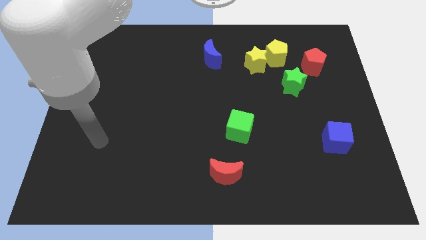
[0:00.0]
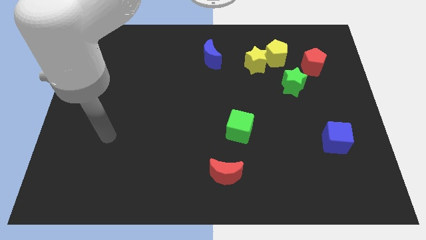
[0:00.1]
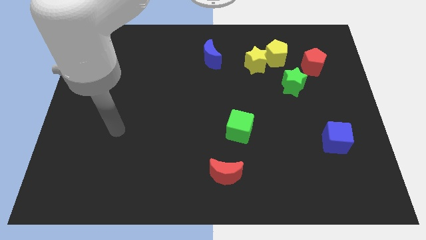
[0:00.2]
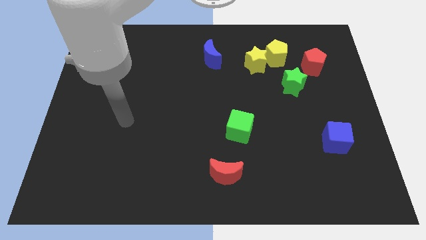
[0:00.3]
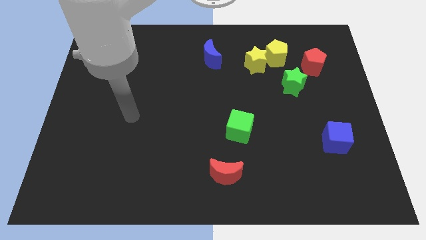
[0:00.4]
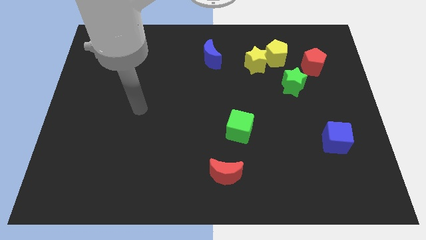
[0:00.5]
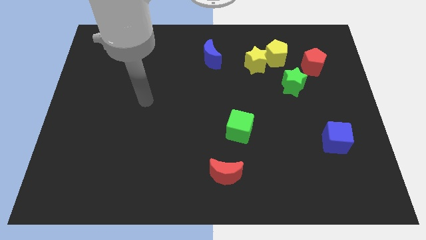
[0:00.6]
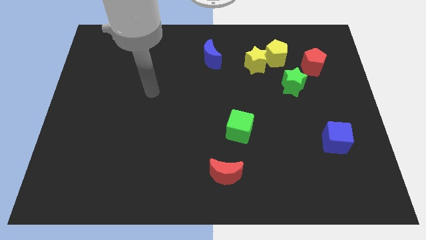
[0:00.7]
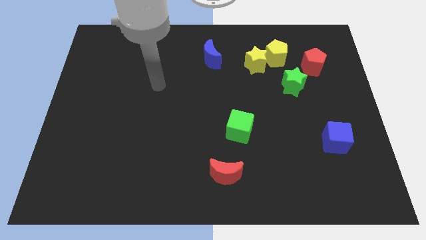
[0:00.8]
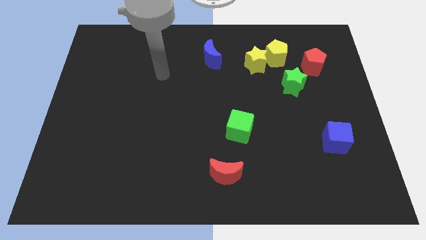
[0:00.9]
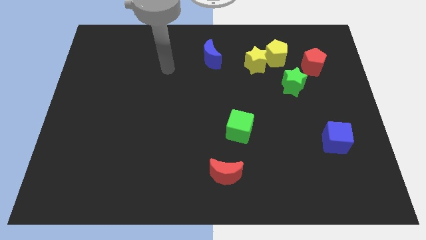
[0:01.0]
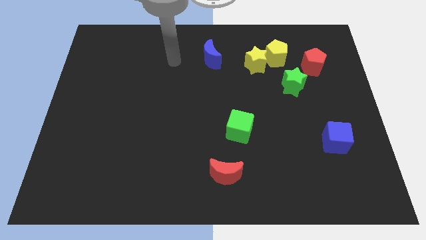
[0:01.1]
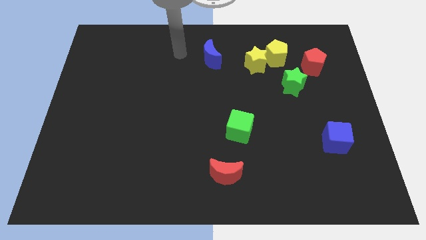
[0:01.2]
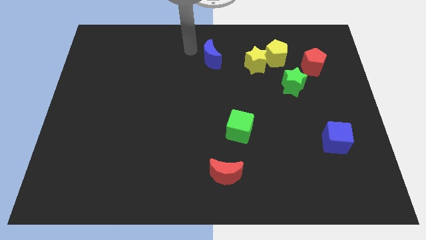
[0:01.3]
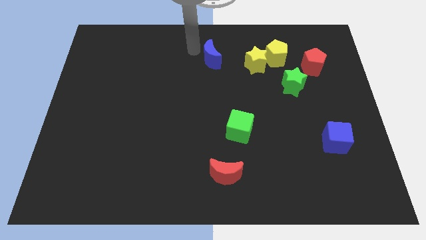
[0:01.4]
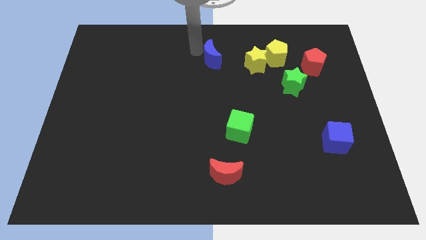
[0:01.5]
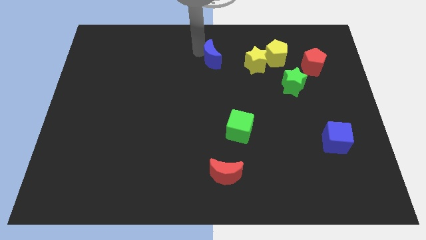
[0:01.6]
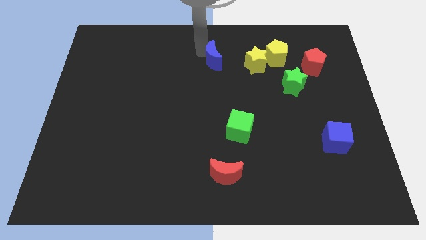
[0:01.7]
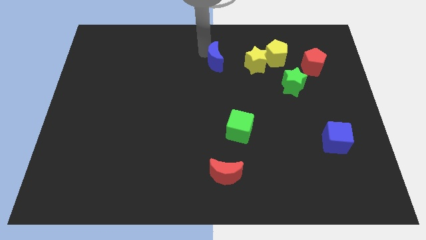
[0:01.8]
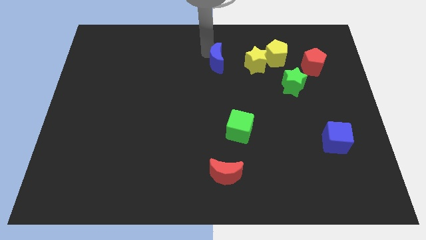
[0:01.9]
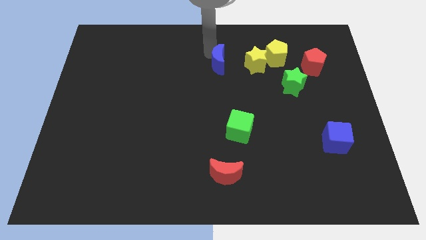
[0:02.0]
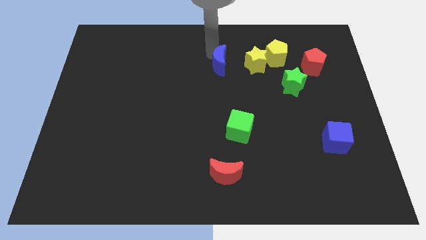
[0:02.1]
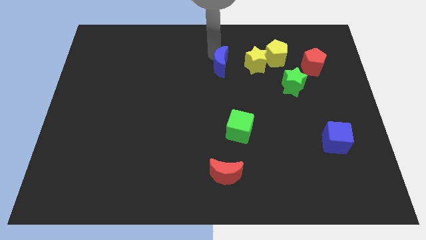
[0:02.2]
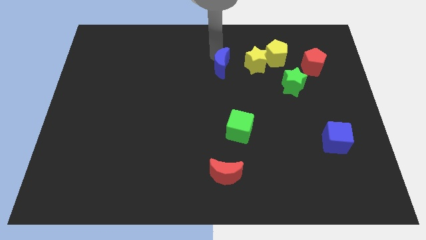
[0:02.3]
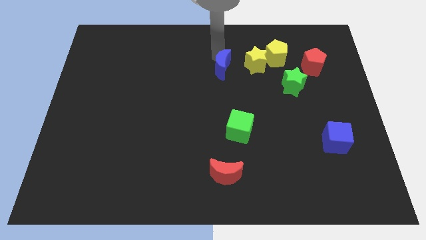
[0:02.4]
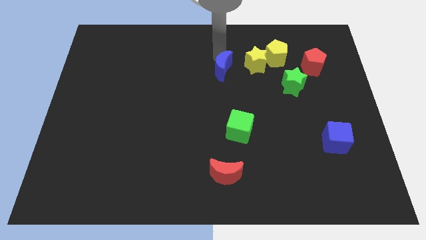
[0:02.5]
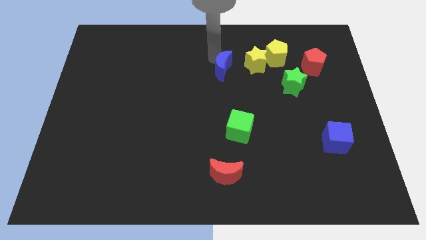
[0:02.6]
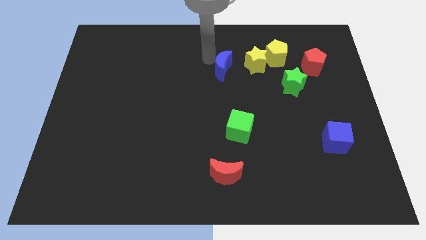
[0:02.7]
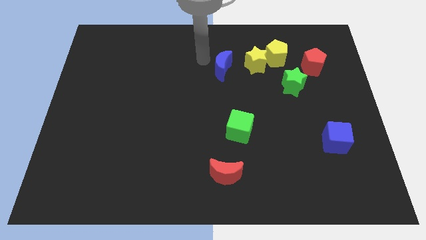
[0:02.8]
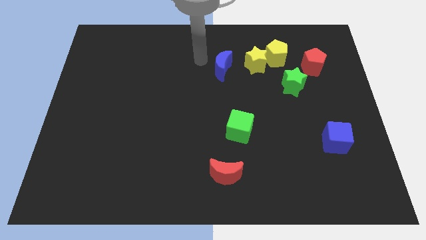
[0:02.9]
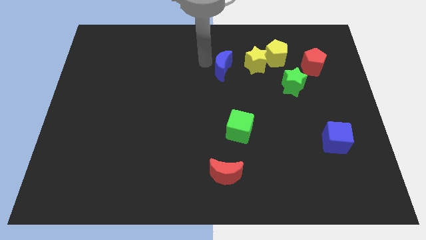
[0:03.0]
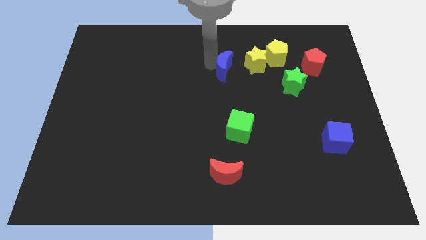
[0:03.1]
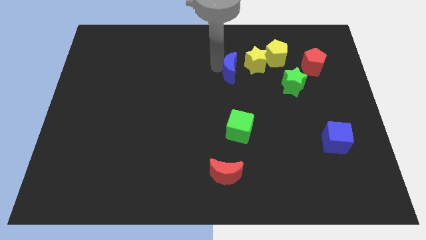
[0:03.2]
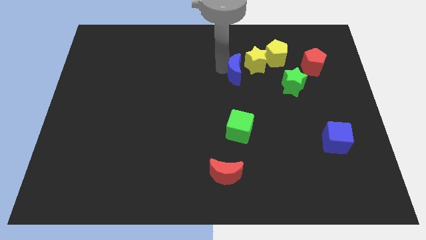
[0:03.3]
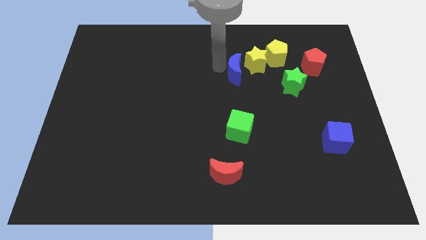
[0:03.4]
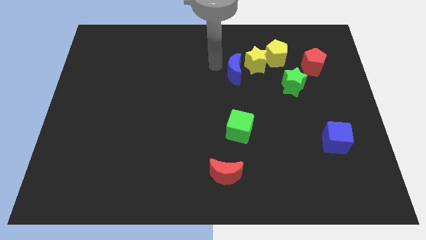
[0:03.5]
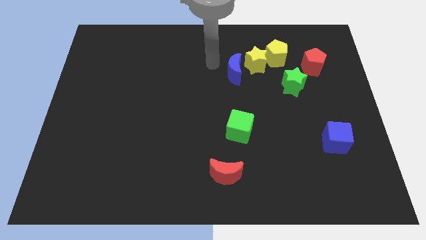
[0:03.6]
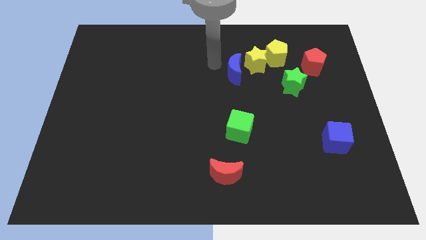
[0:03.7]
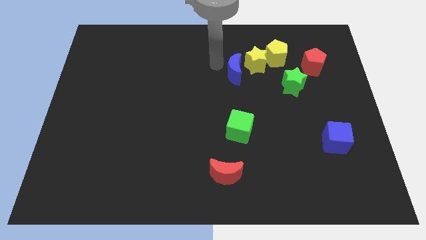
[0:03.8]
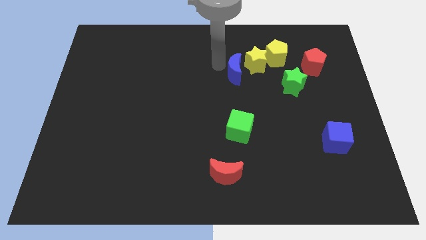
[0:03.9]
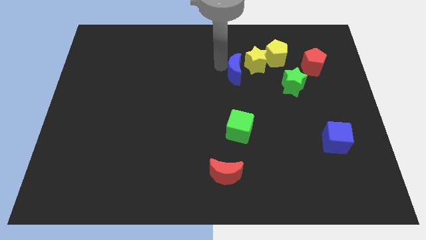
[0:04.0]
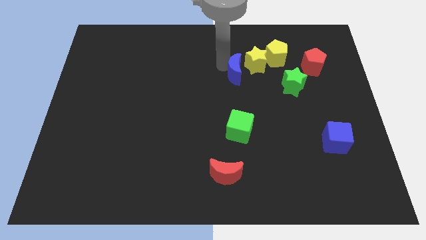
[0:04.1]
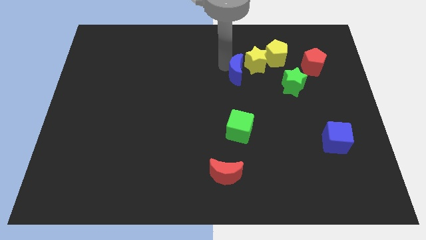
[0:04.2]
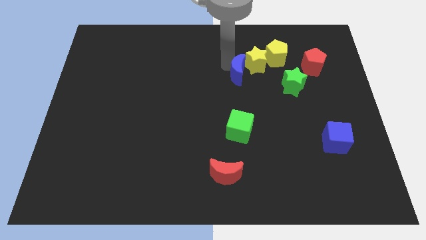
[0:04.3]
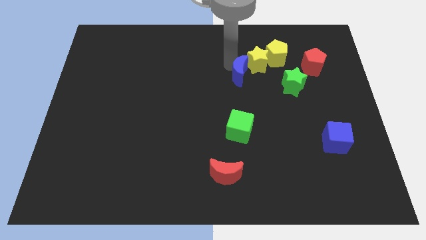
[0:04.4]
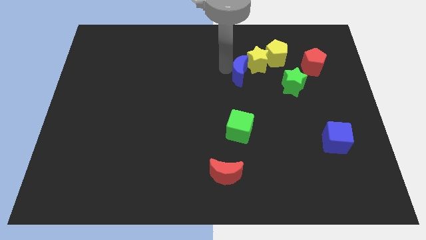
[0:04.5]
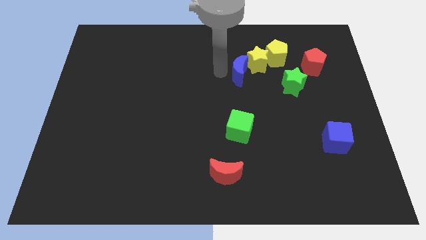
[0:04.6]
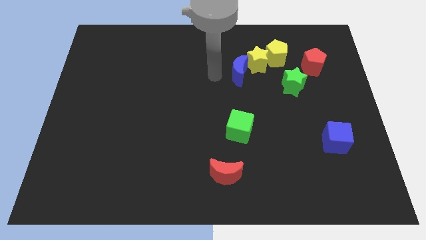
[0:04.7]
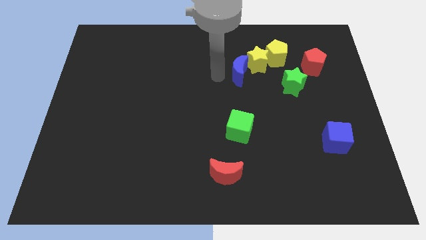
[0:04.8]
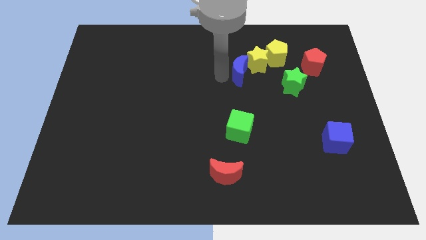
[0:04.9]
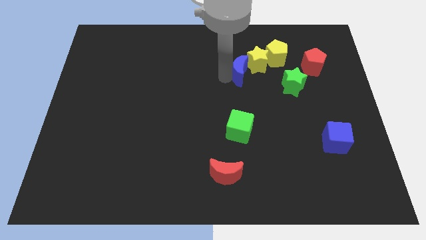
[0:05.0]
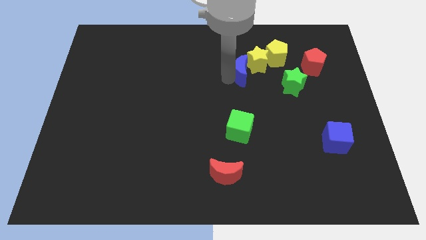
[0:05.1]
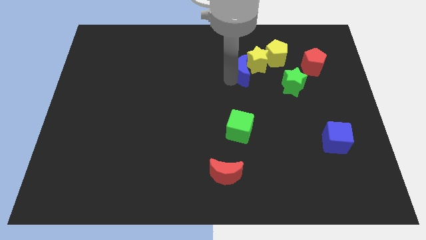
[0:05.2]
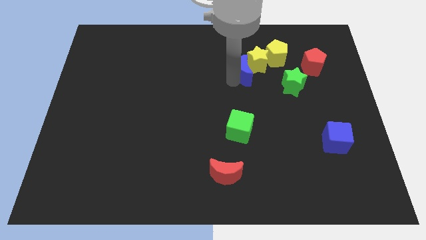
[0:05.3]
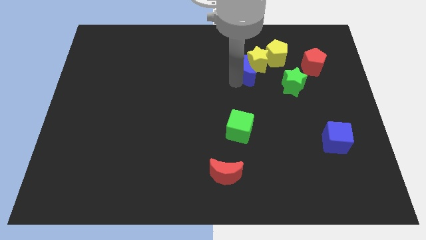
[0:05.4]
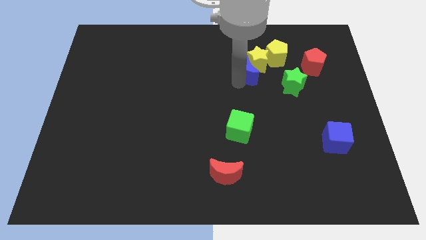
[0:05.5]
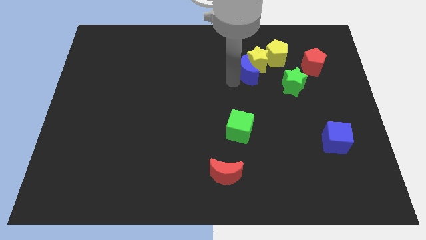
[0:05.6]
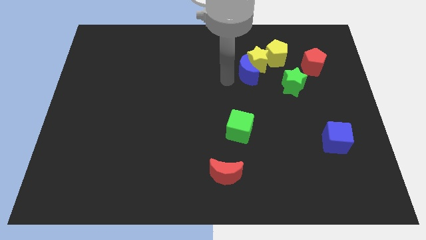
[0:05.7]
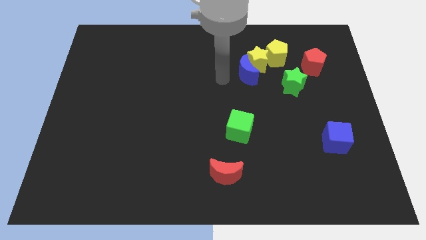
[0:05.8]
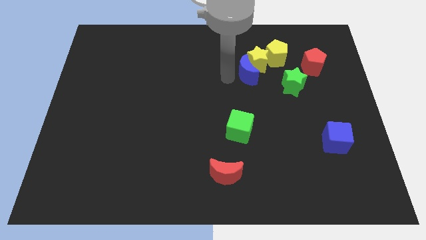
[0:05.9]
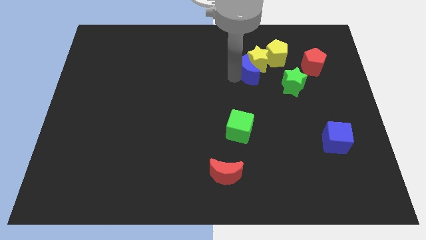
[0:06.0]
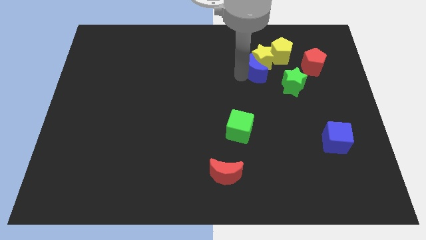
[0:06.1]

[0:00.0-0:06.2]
slide the blue moon to the top left side of the green star

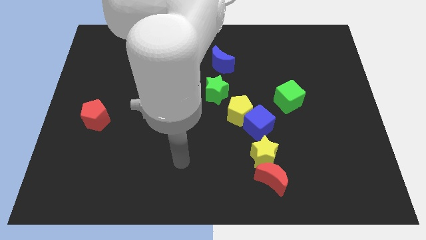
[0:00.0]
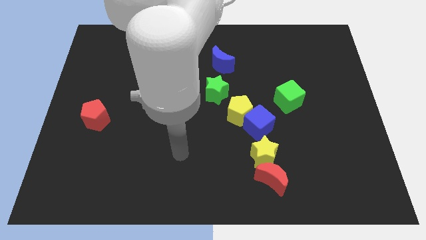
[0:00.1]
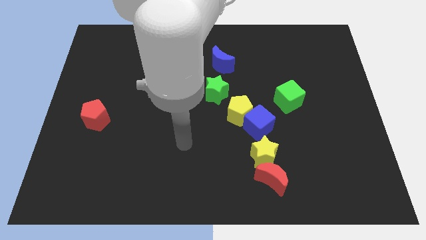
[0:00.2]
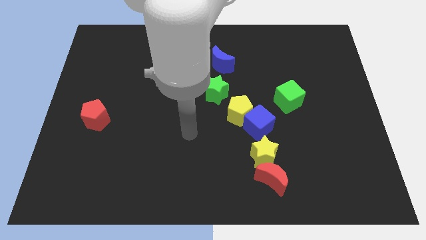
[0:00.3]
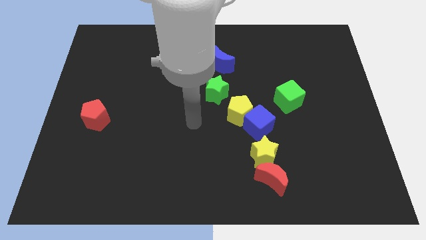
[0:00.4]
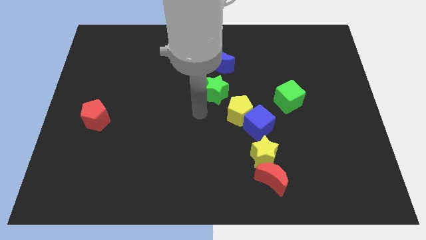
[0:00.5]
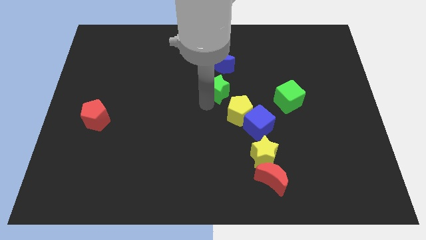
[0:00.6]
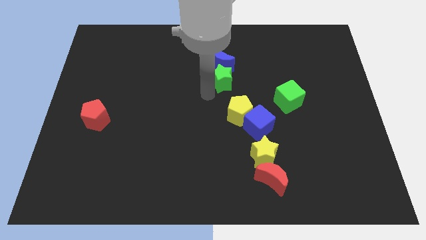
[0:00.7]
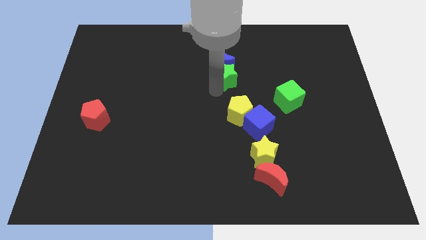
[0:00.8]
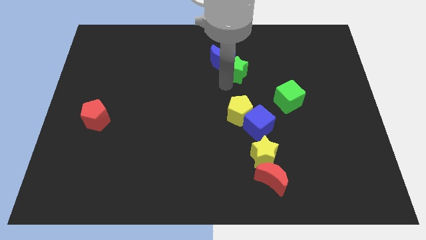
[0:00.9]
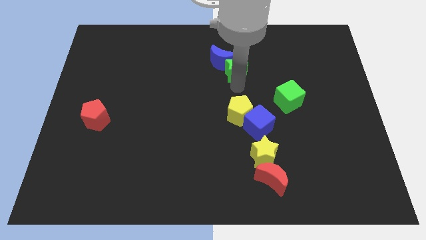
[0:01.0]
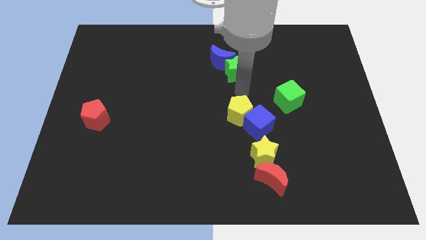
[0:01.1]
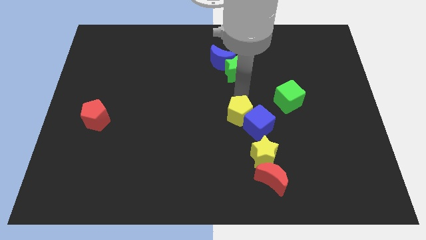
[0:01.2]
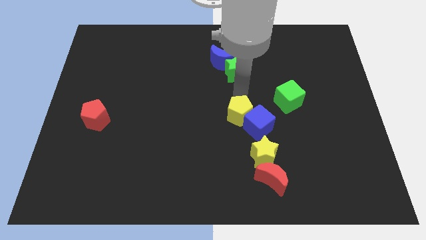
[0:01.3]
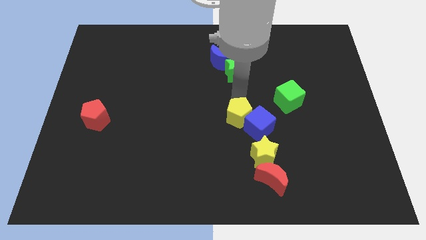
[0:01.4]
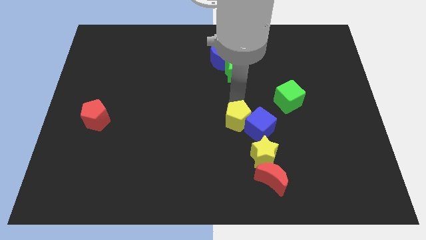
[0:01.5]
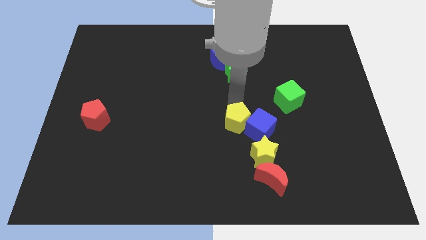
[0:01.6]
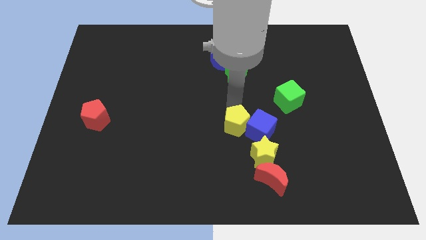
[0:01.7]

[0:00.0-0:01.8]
put the yellow pentagon diagonally down and to the left of the blue cube
